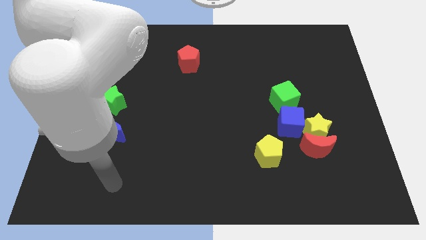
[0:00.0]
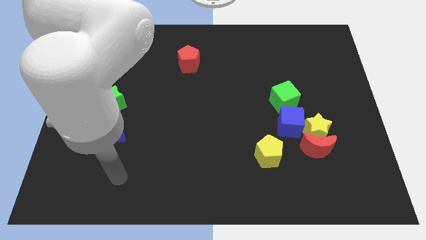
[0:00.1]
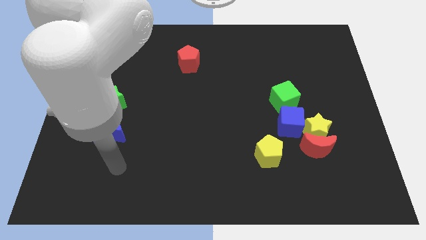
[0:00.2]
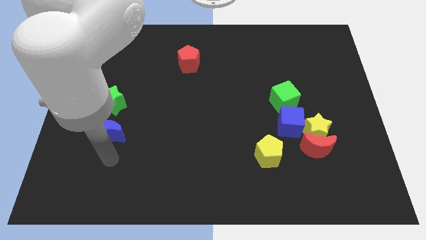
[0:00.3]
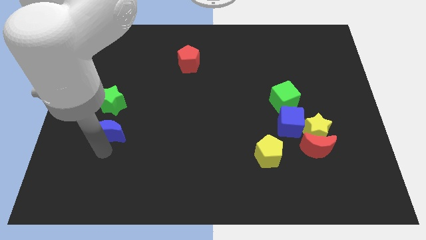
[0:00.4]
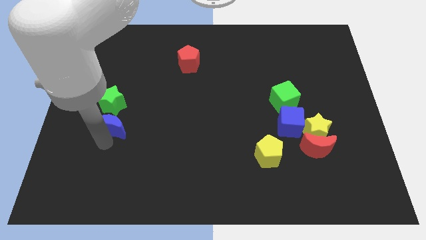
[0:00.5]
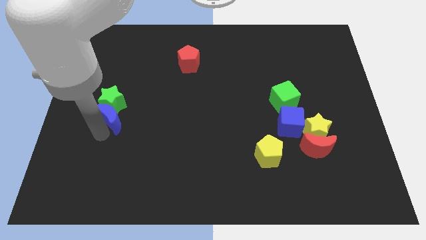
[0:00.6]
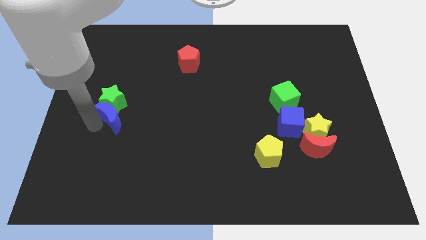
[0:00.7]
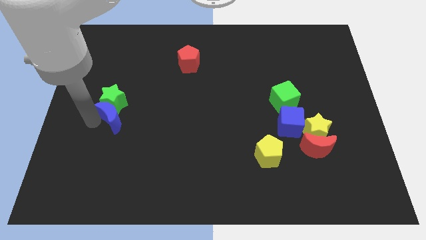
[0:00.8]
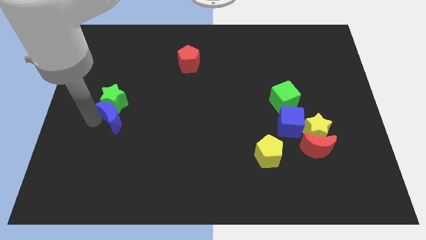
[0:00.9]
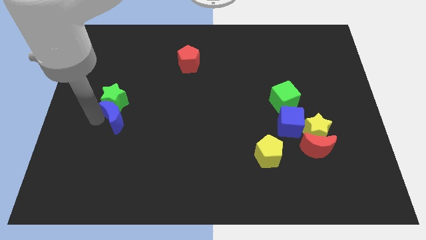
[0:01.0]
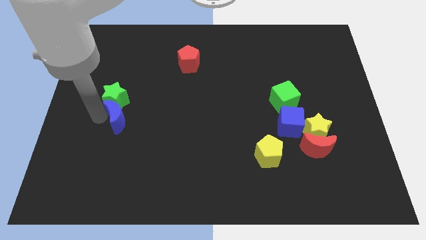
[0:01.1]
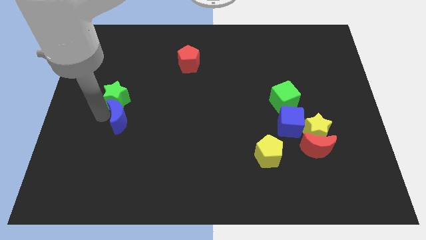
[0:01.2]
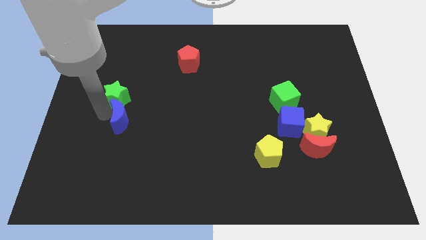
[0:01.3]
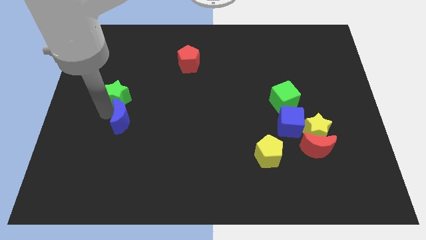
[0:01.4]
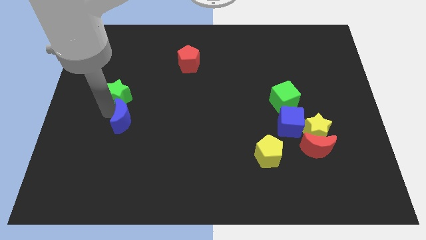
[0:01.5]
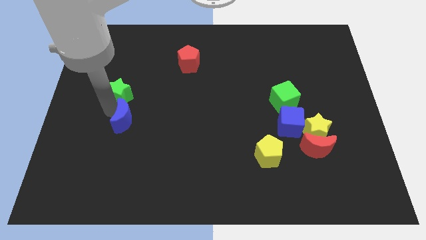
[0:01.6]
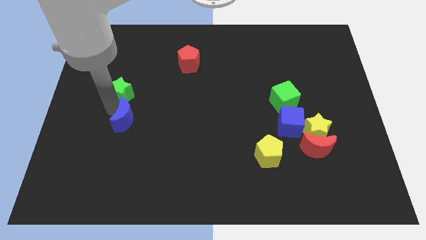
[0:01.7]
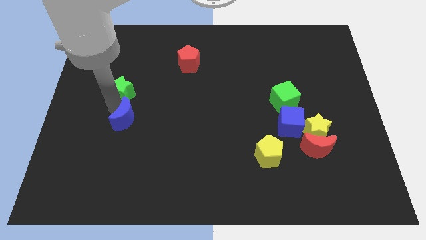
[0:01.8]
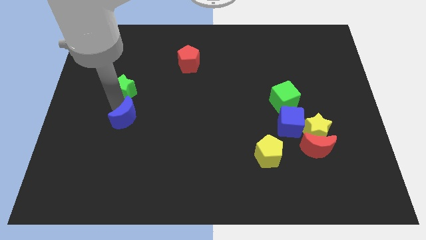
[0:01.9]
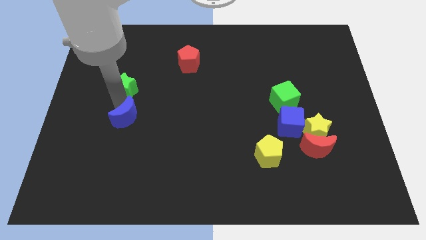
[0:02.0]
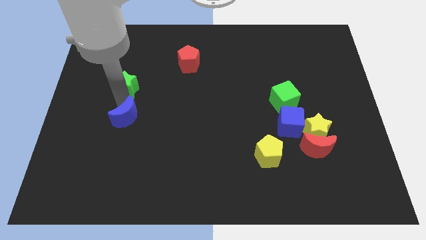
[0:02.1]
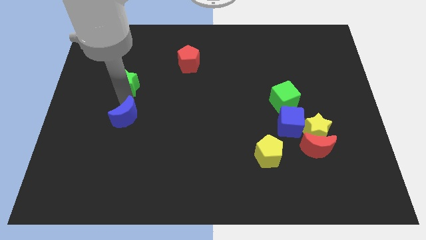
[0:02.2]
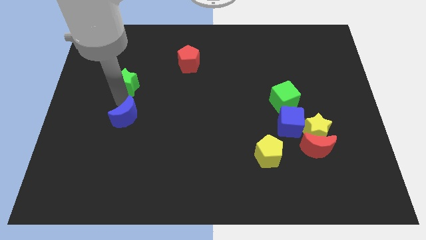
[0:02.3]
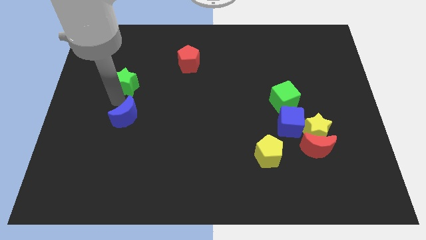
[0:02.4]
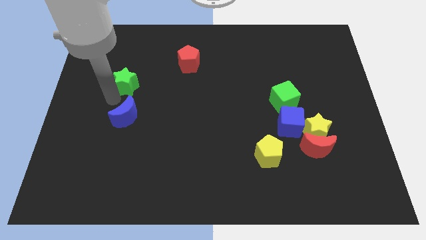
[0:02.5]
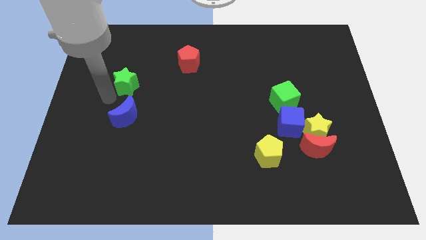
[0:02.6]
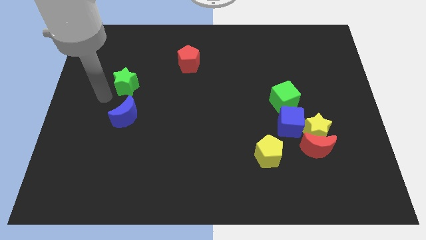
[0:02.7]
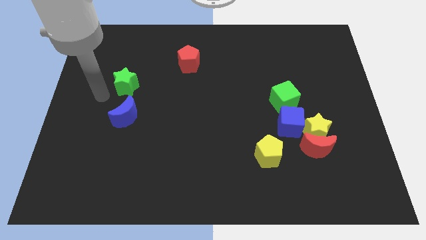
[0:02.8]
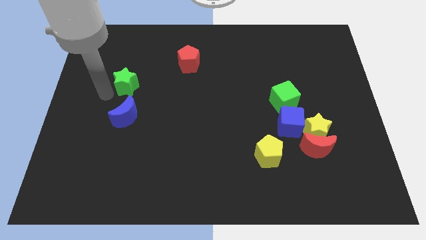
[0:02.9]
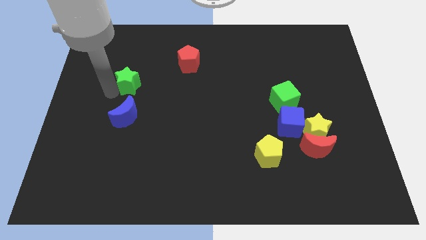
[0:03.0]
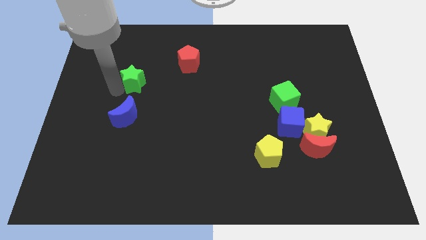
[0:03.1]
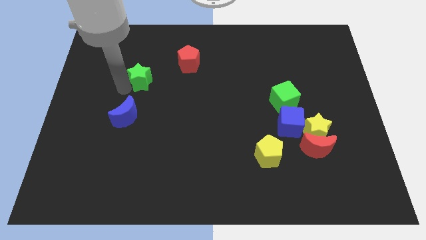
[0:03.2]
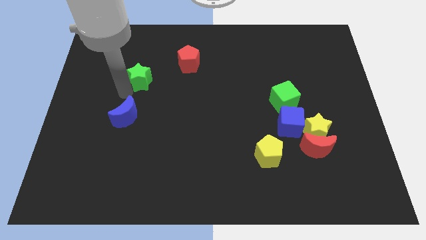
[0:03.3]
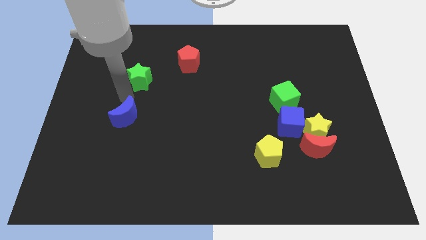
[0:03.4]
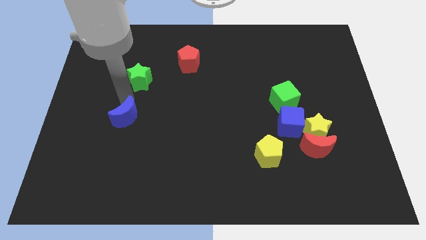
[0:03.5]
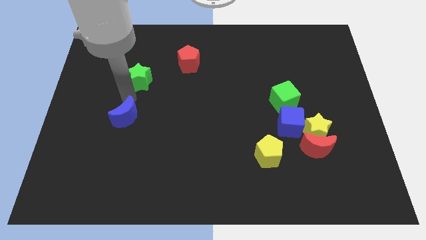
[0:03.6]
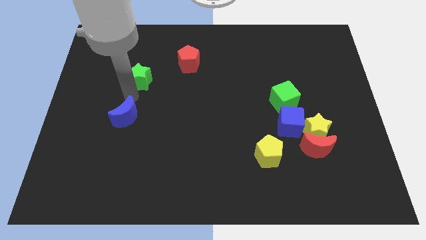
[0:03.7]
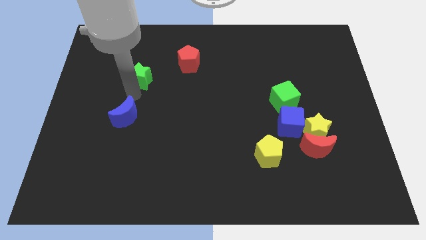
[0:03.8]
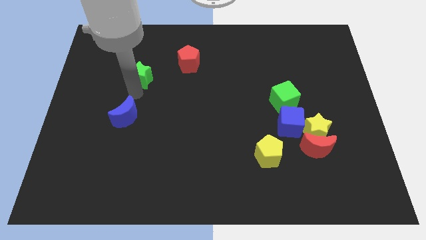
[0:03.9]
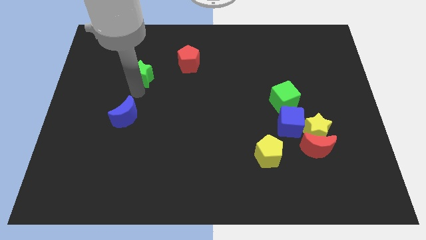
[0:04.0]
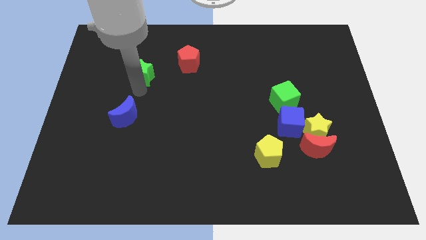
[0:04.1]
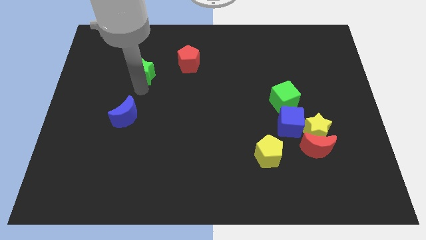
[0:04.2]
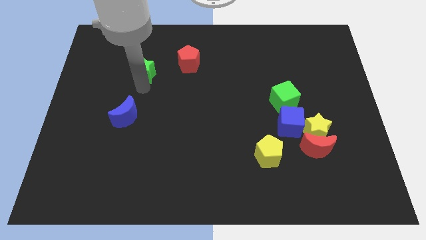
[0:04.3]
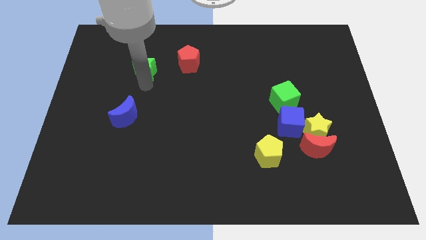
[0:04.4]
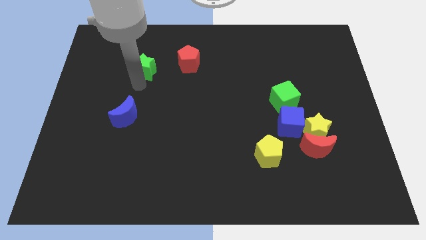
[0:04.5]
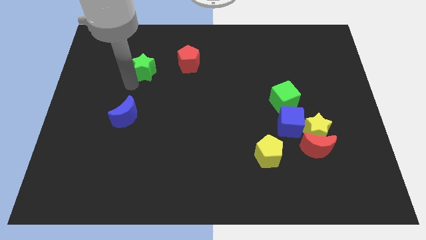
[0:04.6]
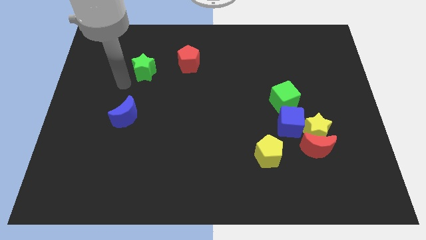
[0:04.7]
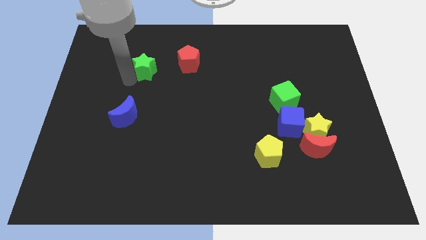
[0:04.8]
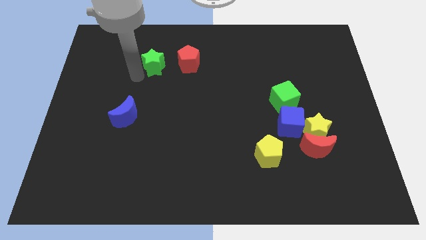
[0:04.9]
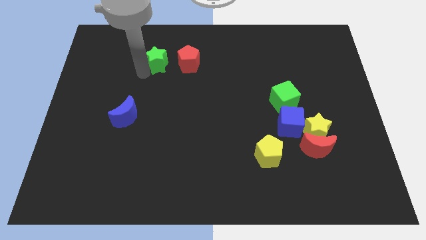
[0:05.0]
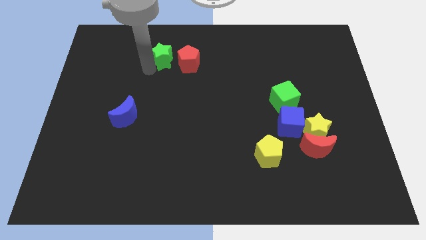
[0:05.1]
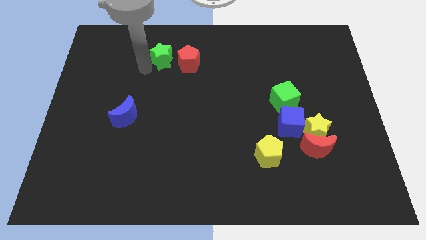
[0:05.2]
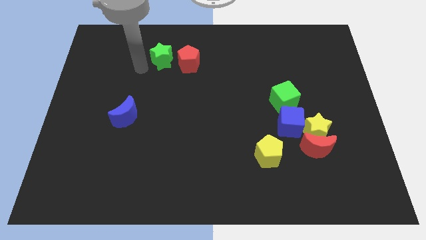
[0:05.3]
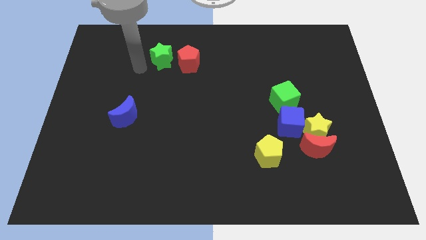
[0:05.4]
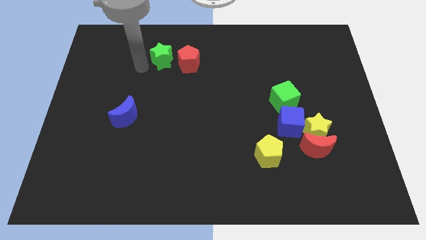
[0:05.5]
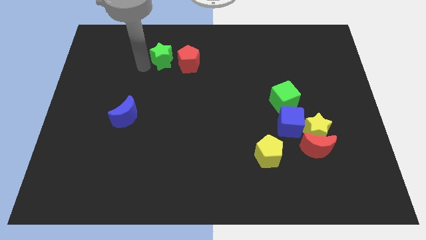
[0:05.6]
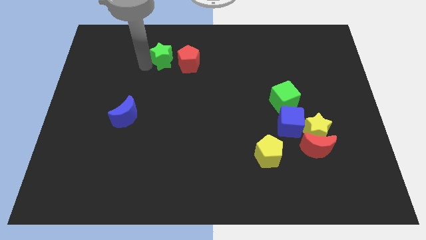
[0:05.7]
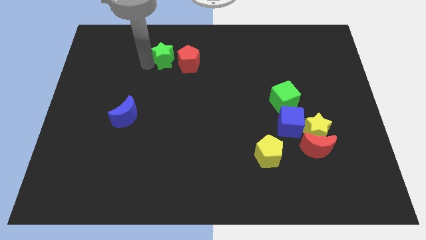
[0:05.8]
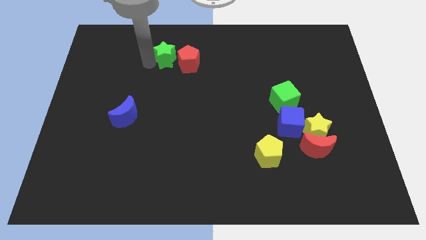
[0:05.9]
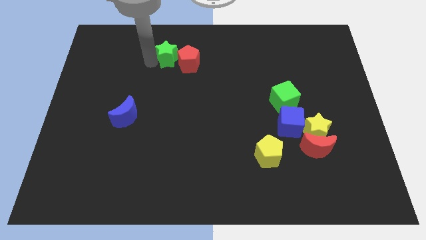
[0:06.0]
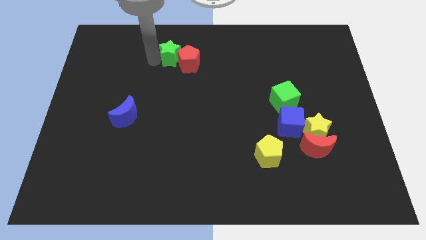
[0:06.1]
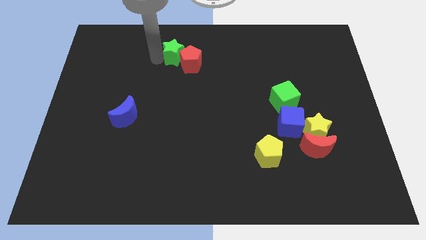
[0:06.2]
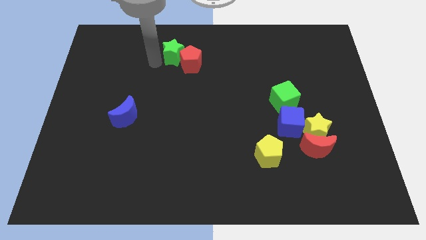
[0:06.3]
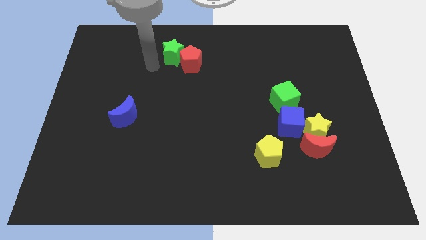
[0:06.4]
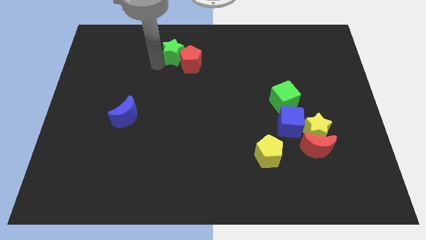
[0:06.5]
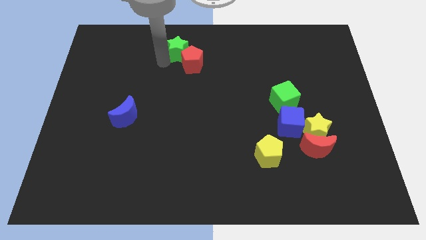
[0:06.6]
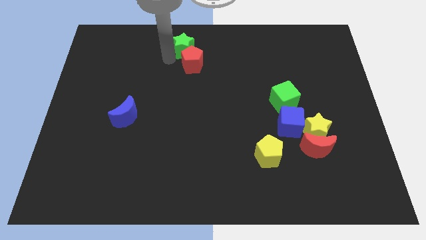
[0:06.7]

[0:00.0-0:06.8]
put the green star to the top

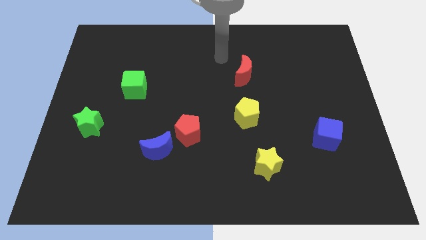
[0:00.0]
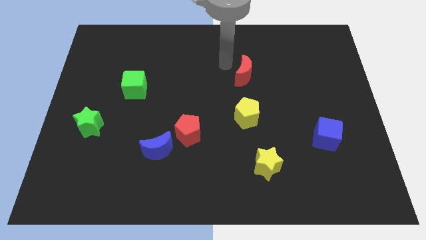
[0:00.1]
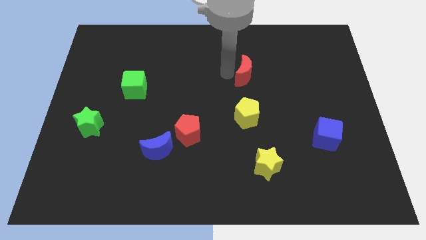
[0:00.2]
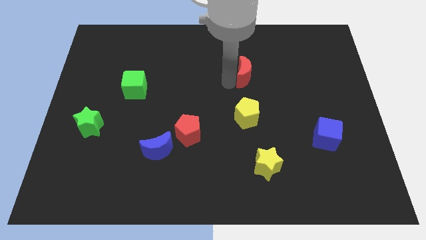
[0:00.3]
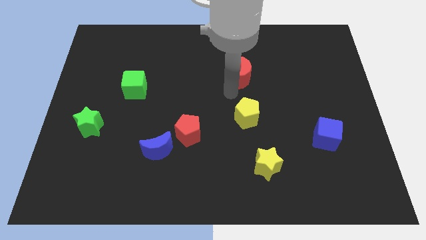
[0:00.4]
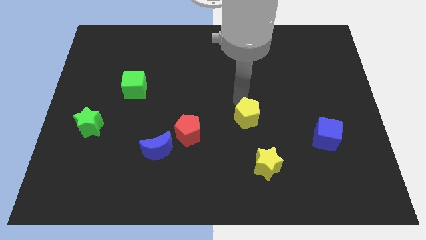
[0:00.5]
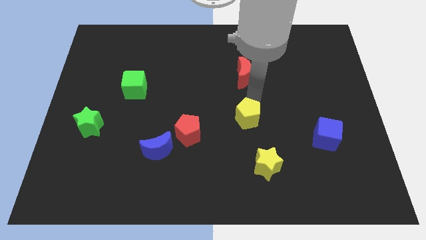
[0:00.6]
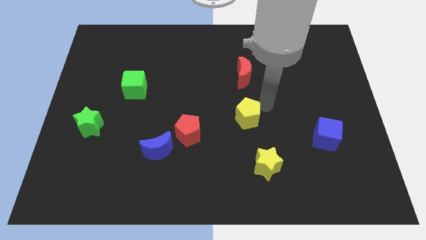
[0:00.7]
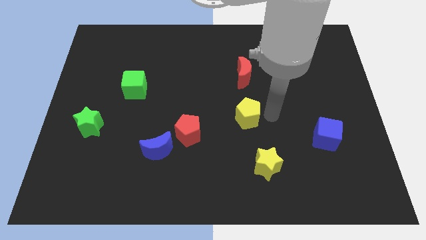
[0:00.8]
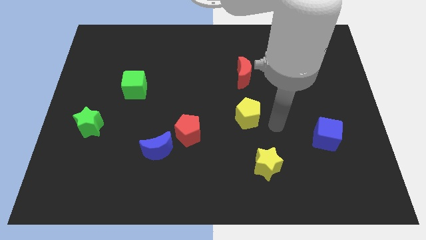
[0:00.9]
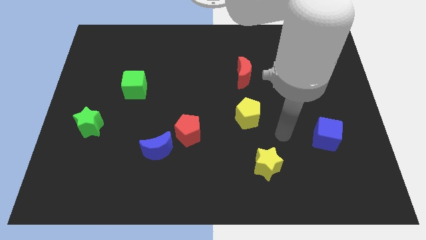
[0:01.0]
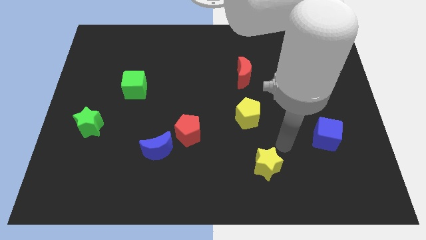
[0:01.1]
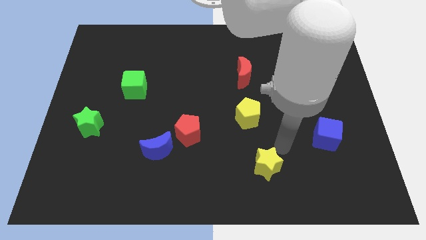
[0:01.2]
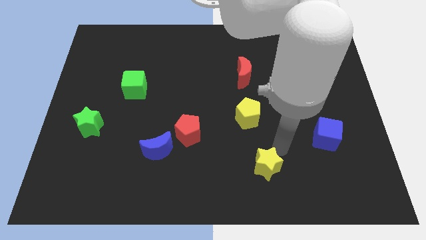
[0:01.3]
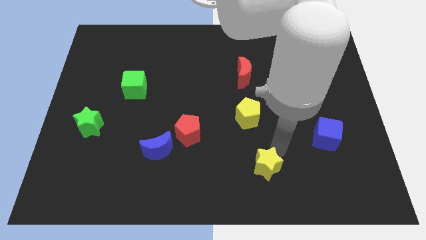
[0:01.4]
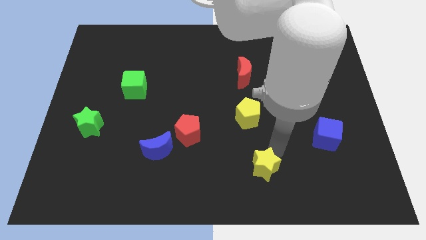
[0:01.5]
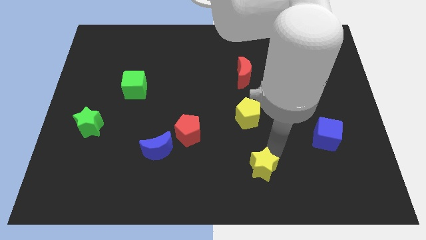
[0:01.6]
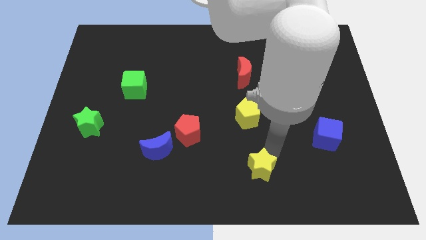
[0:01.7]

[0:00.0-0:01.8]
slide the yellow star to the bottom
